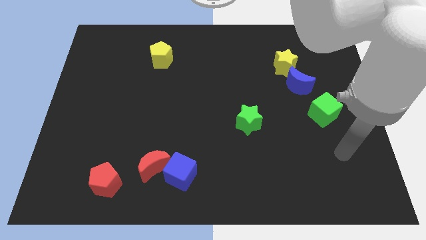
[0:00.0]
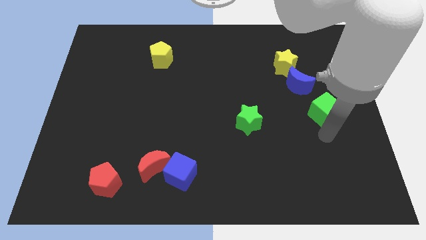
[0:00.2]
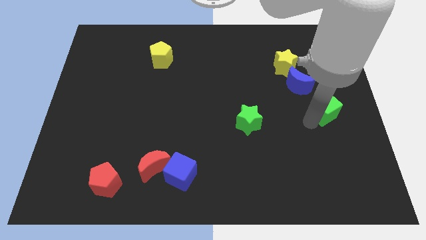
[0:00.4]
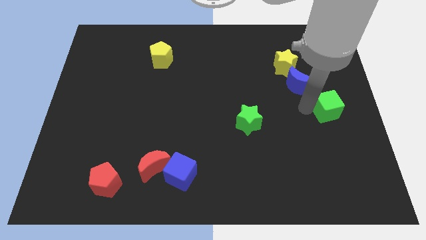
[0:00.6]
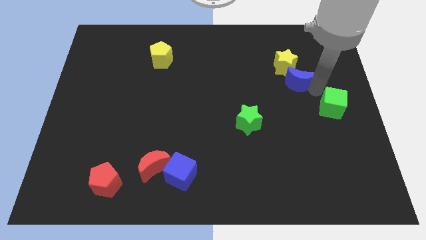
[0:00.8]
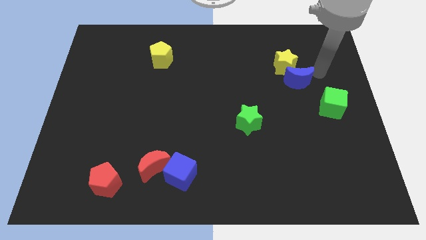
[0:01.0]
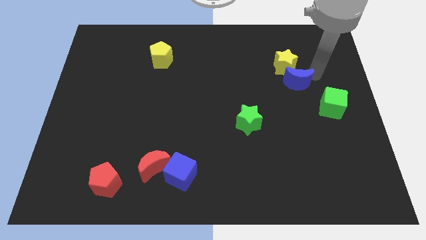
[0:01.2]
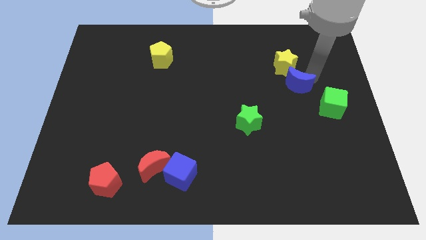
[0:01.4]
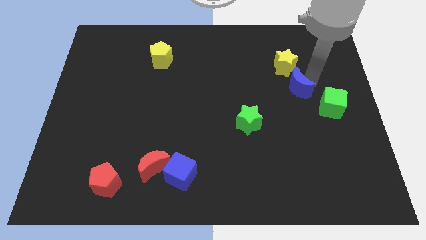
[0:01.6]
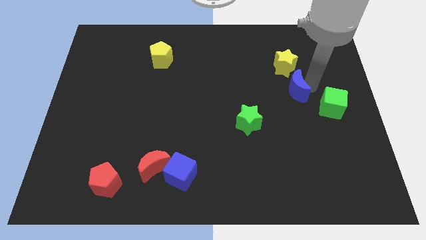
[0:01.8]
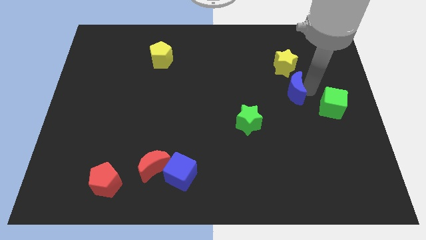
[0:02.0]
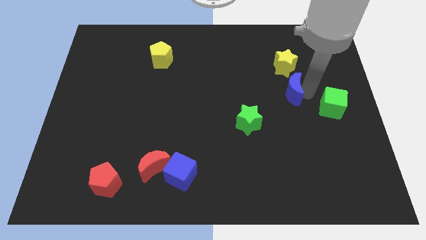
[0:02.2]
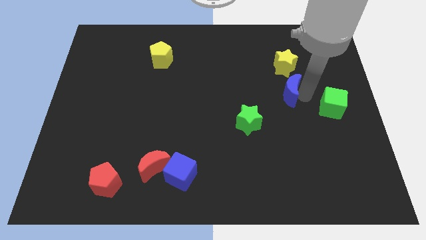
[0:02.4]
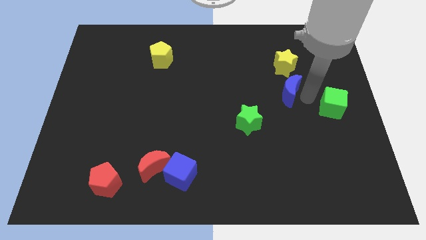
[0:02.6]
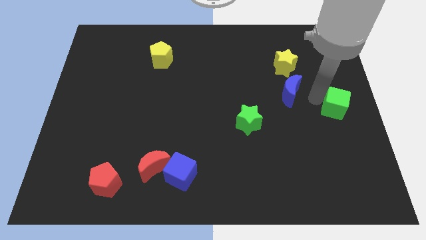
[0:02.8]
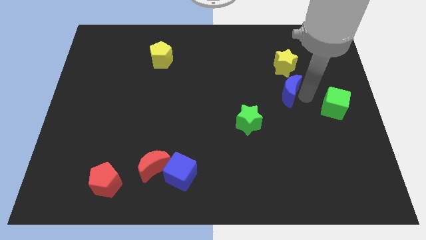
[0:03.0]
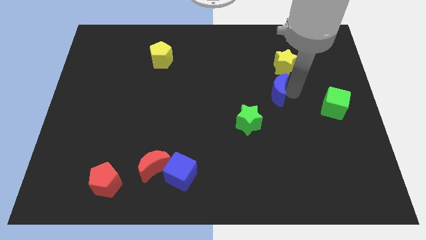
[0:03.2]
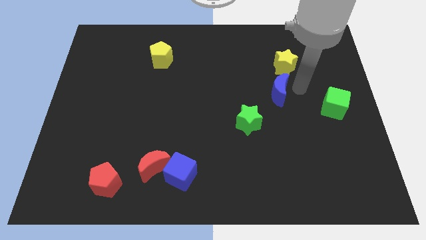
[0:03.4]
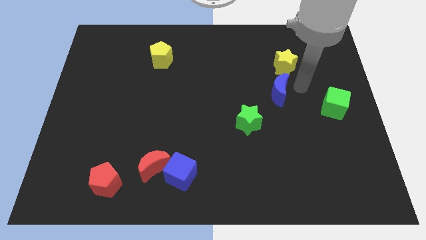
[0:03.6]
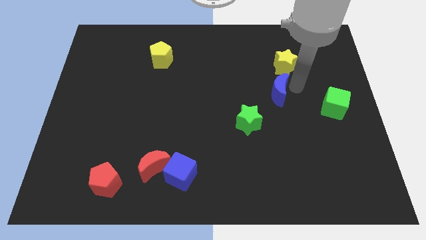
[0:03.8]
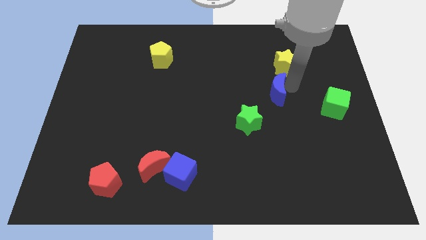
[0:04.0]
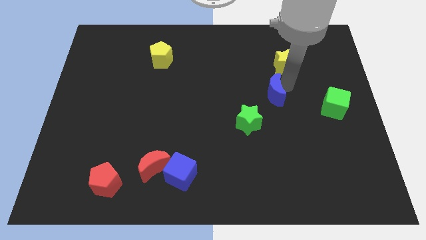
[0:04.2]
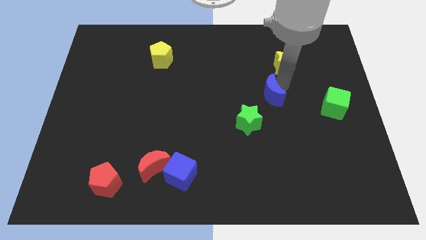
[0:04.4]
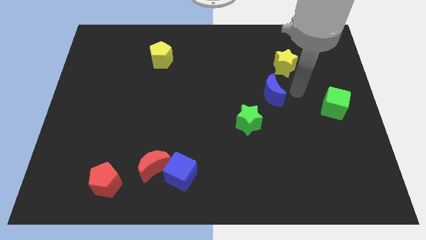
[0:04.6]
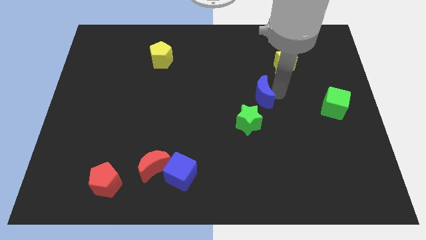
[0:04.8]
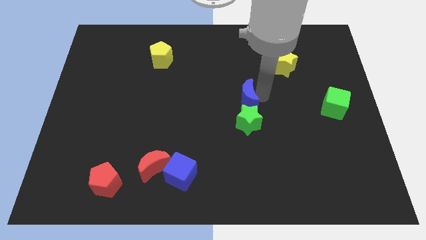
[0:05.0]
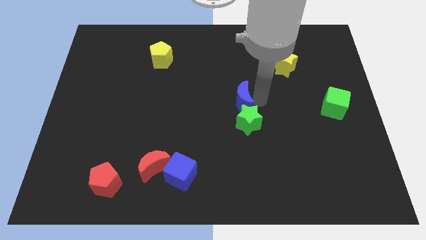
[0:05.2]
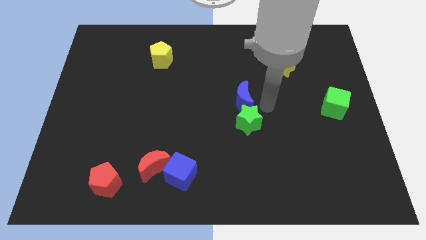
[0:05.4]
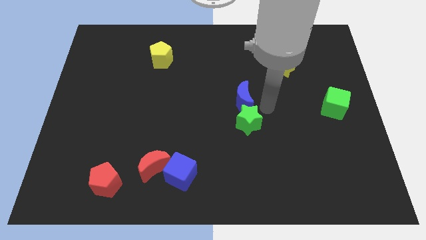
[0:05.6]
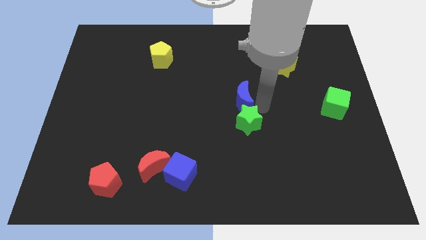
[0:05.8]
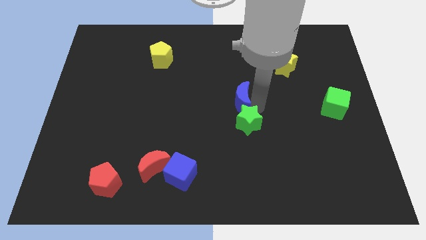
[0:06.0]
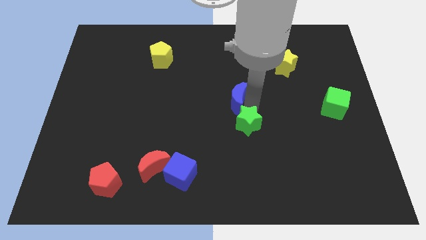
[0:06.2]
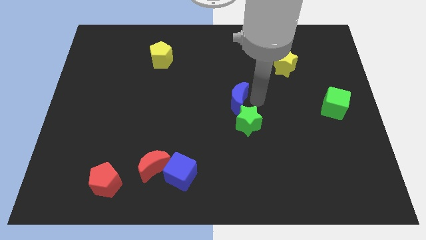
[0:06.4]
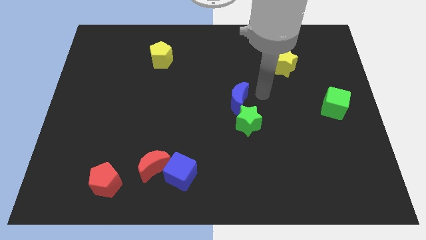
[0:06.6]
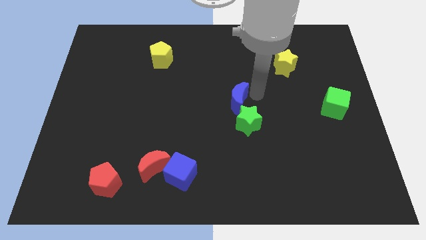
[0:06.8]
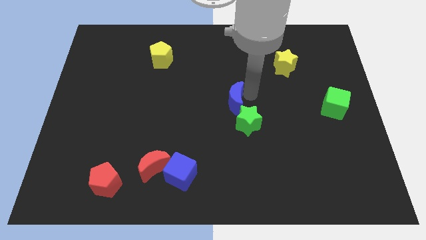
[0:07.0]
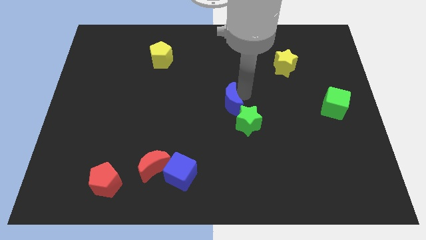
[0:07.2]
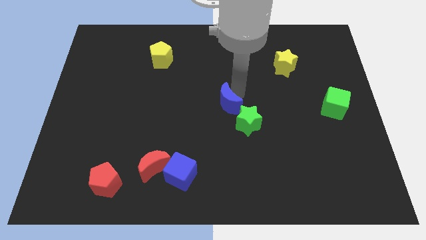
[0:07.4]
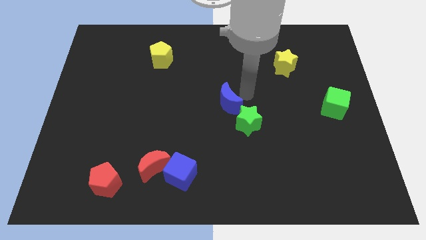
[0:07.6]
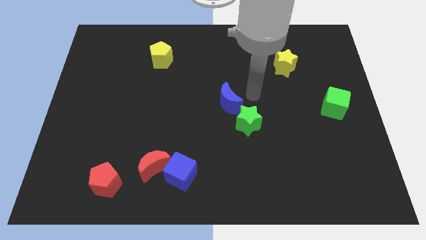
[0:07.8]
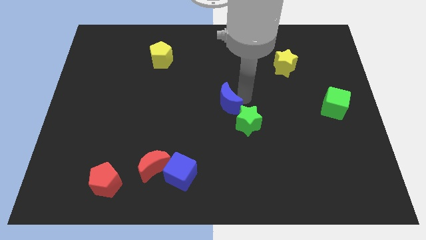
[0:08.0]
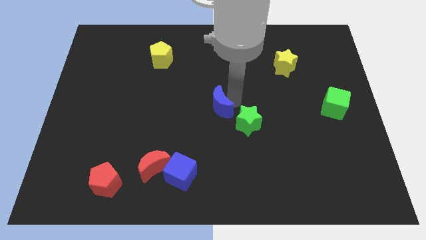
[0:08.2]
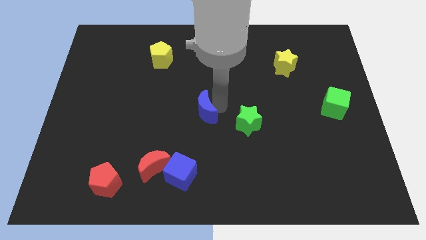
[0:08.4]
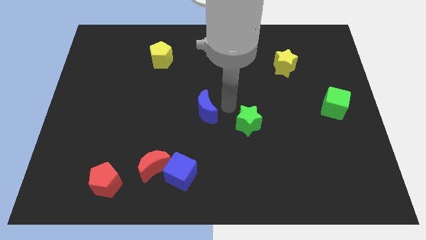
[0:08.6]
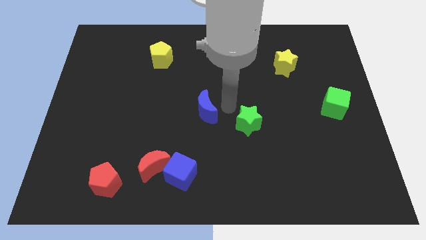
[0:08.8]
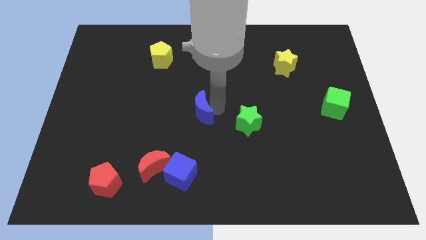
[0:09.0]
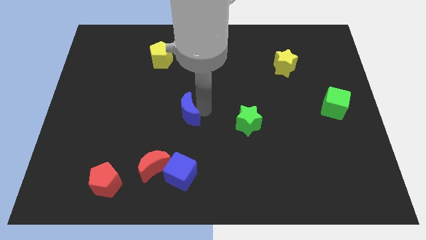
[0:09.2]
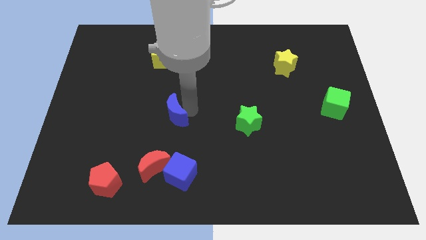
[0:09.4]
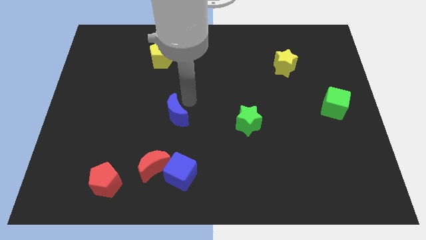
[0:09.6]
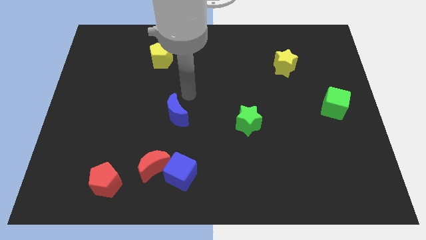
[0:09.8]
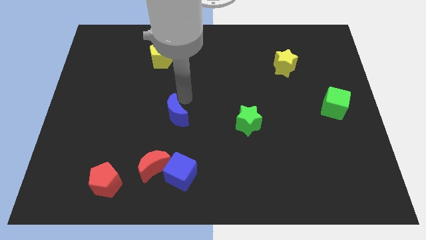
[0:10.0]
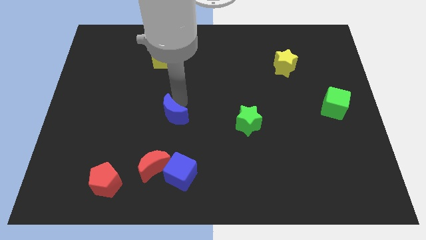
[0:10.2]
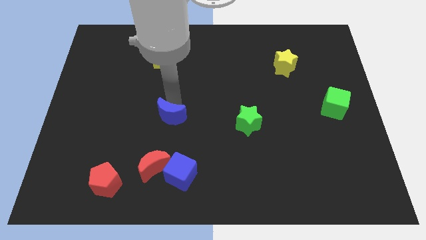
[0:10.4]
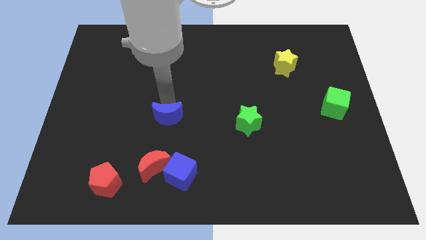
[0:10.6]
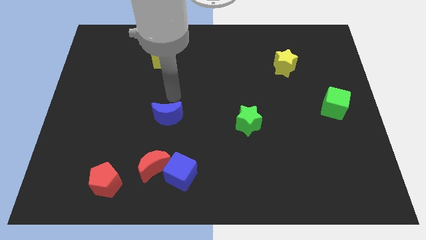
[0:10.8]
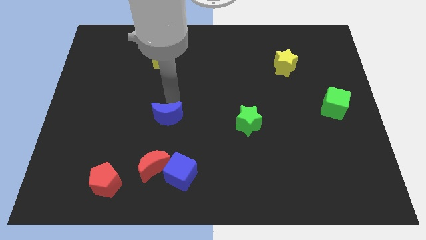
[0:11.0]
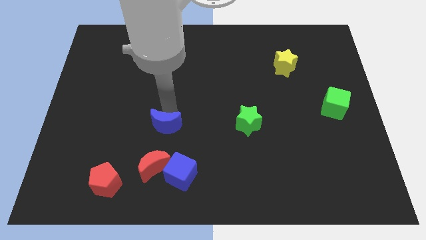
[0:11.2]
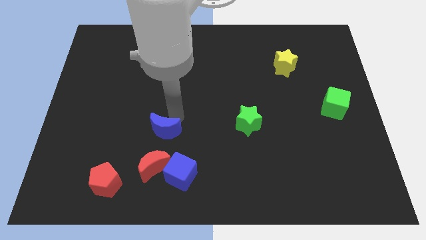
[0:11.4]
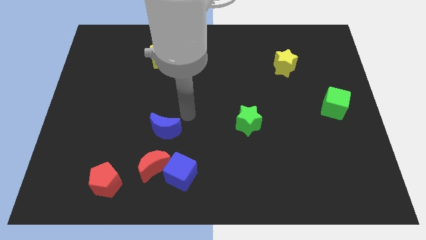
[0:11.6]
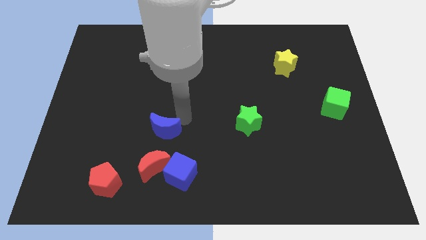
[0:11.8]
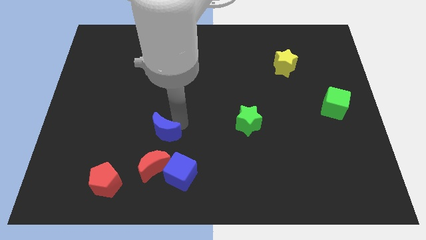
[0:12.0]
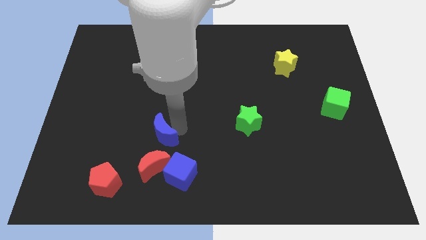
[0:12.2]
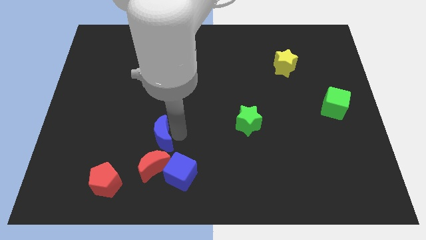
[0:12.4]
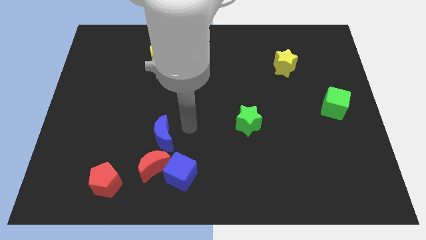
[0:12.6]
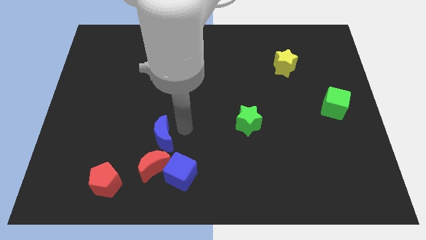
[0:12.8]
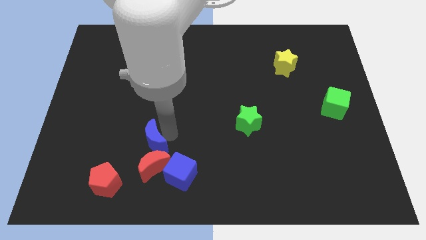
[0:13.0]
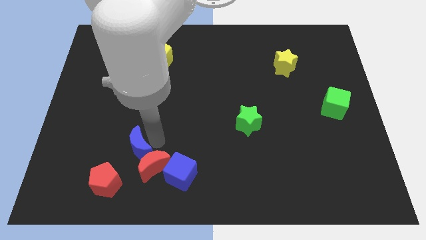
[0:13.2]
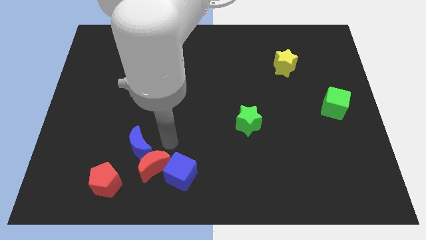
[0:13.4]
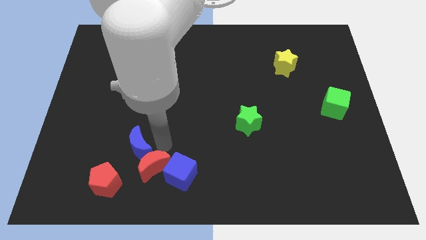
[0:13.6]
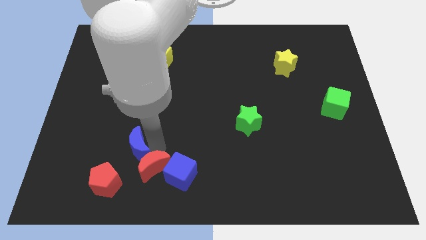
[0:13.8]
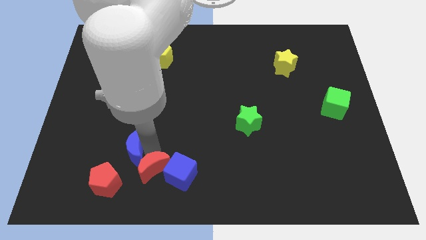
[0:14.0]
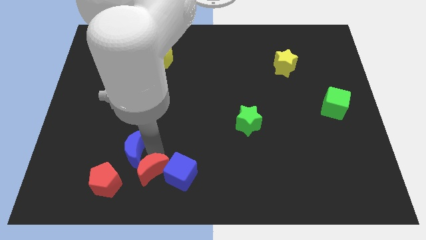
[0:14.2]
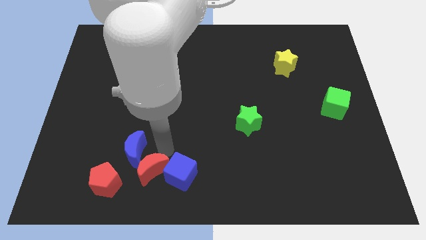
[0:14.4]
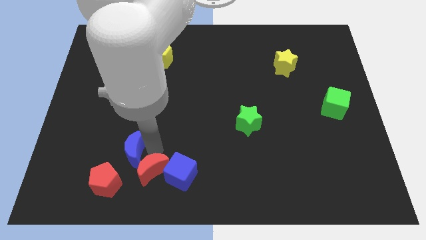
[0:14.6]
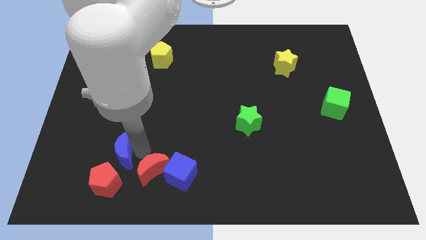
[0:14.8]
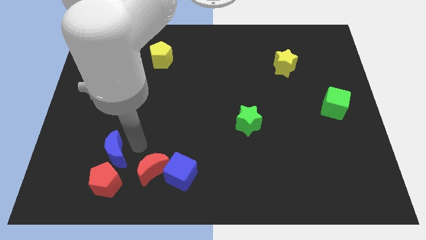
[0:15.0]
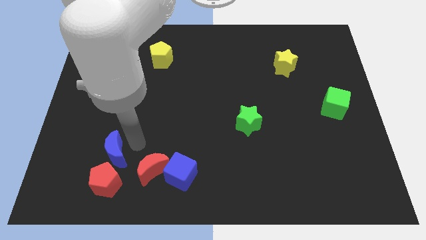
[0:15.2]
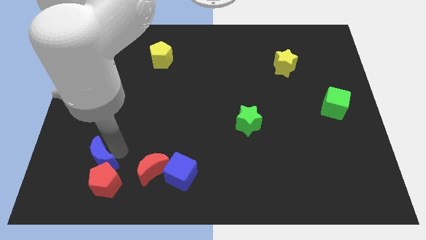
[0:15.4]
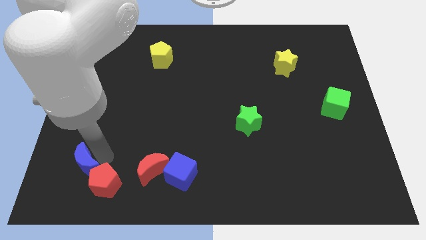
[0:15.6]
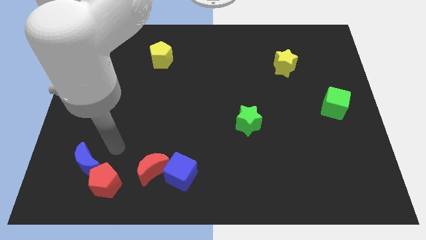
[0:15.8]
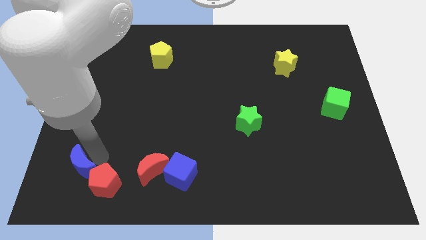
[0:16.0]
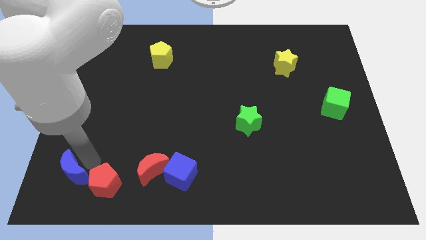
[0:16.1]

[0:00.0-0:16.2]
move the blue moon to the bottom left corner
